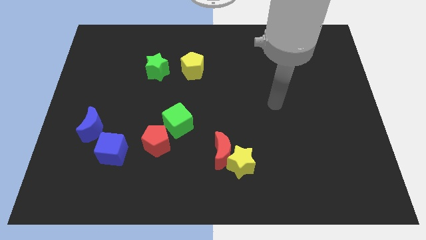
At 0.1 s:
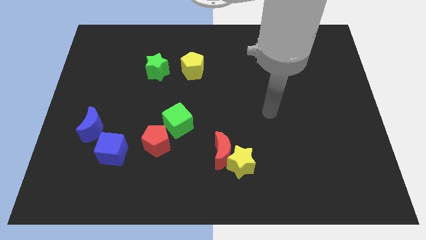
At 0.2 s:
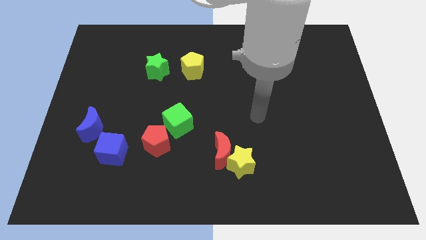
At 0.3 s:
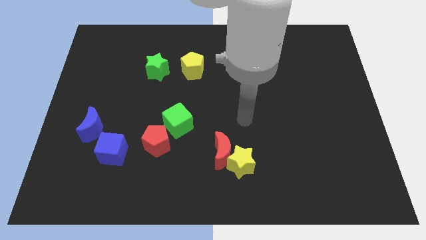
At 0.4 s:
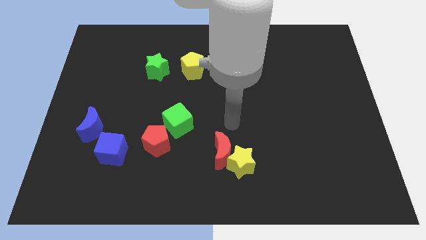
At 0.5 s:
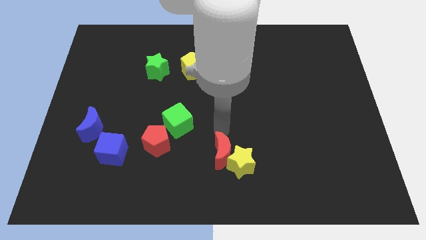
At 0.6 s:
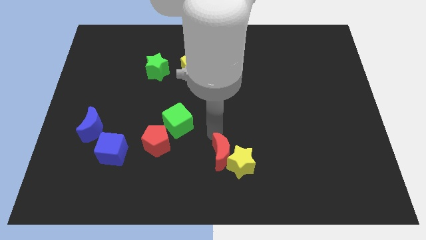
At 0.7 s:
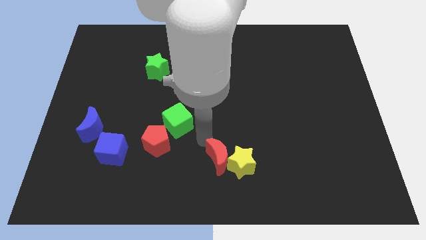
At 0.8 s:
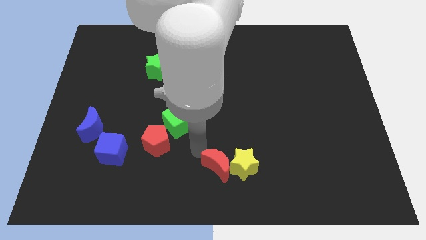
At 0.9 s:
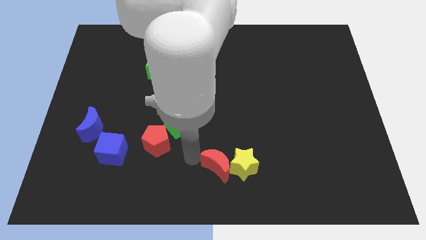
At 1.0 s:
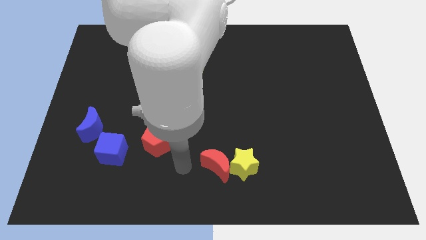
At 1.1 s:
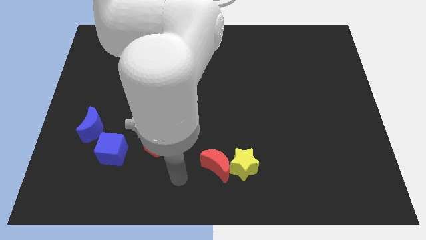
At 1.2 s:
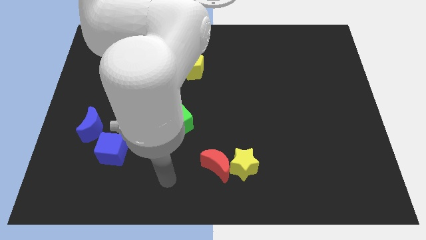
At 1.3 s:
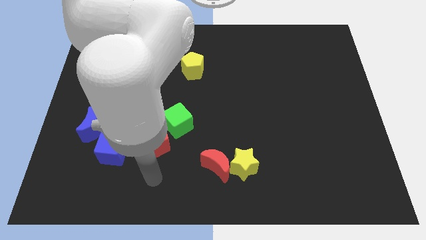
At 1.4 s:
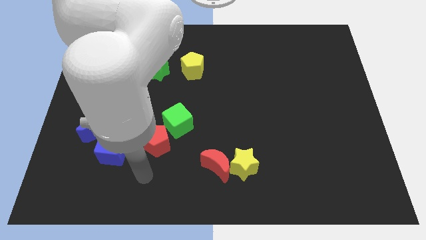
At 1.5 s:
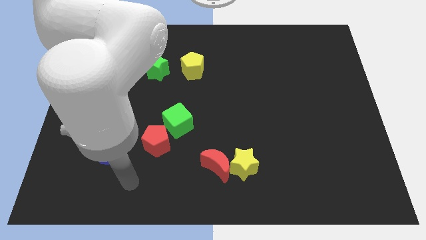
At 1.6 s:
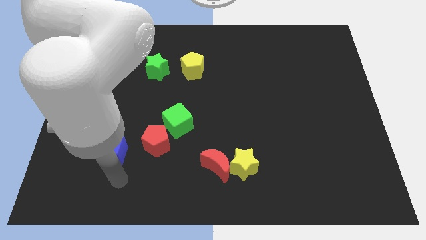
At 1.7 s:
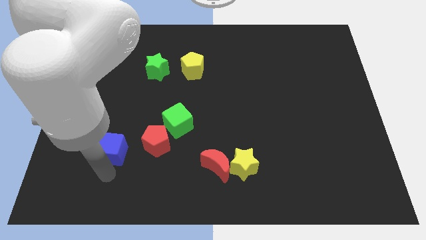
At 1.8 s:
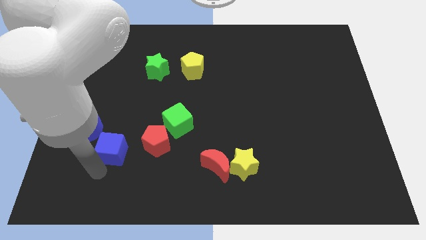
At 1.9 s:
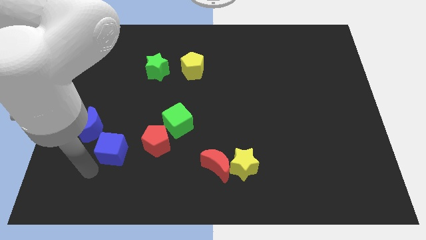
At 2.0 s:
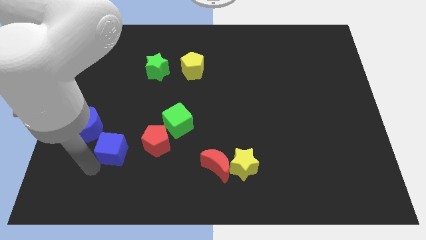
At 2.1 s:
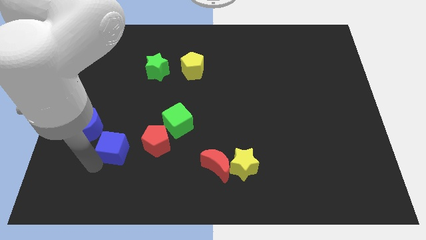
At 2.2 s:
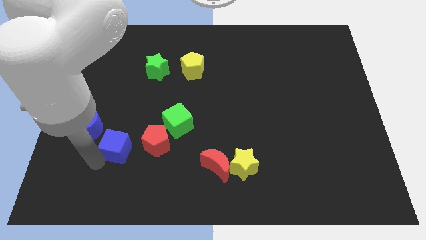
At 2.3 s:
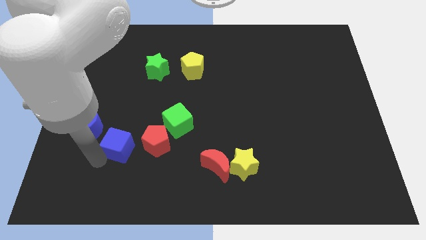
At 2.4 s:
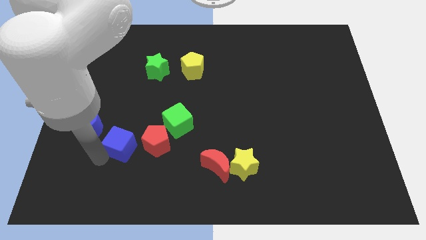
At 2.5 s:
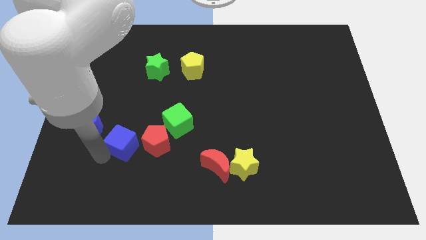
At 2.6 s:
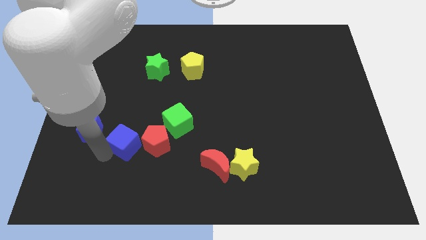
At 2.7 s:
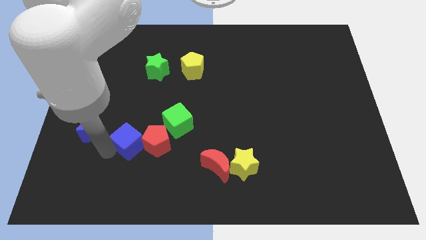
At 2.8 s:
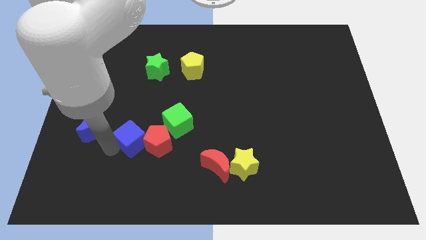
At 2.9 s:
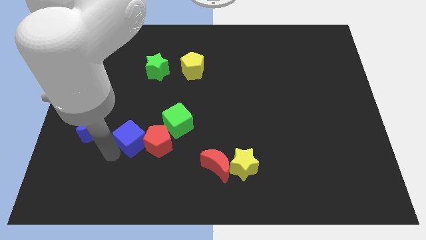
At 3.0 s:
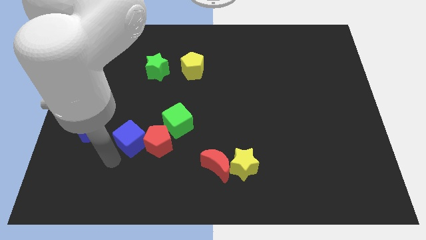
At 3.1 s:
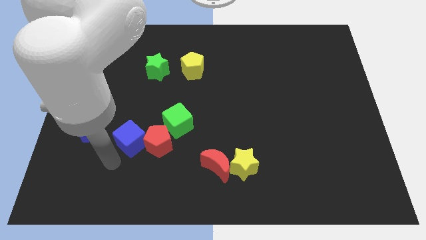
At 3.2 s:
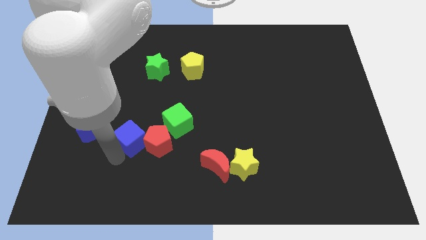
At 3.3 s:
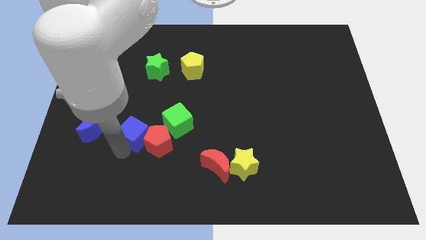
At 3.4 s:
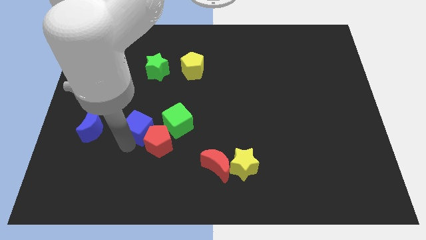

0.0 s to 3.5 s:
slide the blue cube somewhat upwards and to the right diagonally

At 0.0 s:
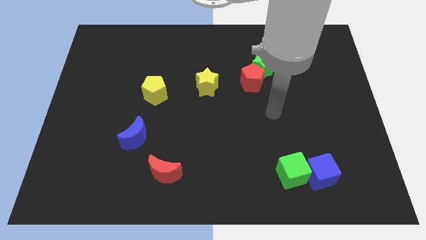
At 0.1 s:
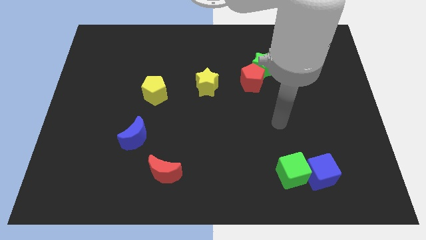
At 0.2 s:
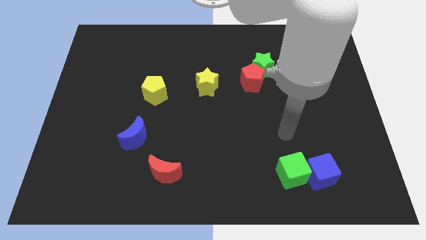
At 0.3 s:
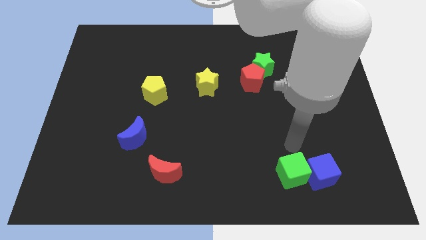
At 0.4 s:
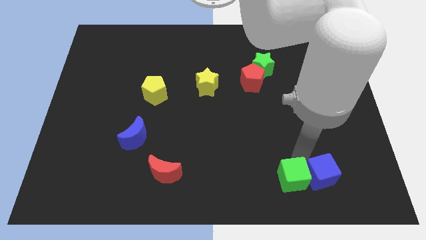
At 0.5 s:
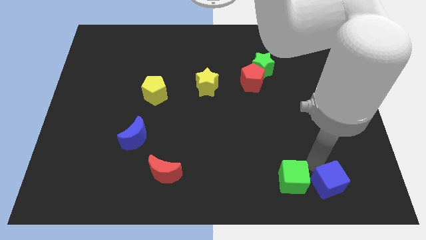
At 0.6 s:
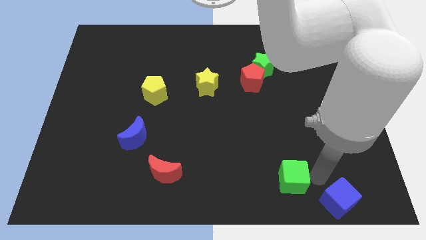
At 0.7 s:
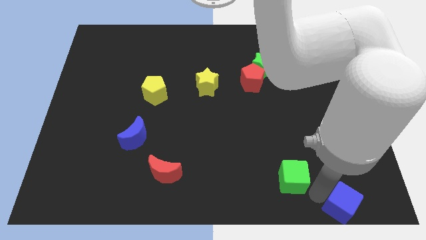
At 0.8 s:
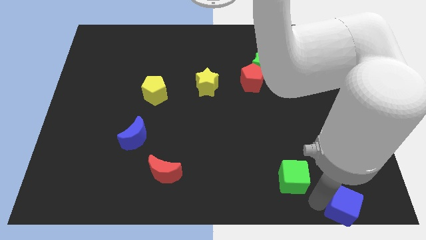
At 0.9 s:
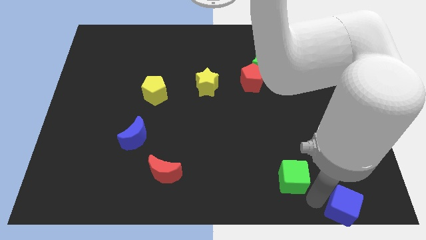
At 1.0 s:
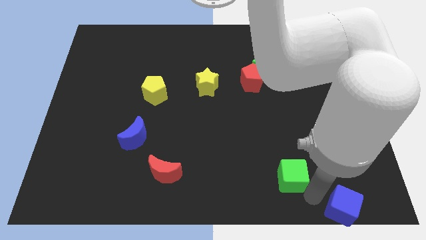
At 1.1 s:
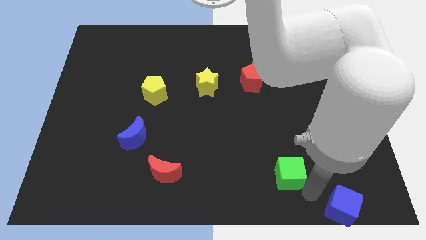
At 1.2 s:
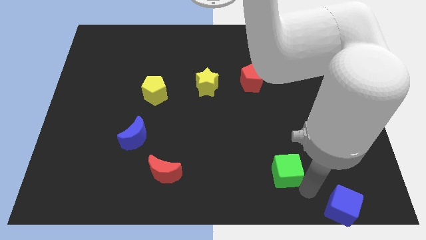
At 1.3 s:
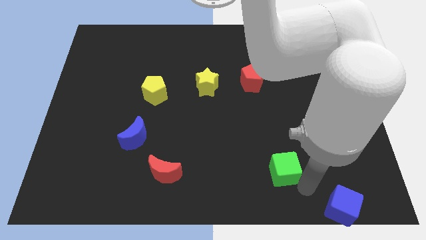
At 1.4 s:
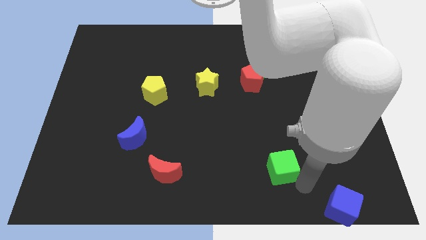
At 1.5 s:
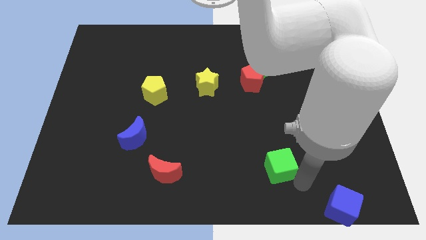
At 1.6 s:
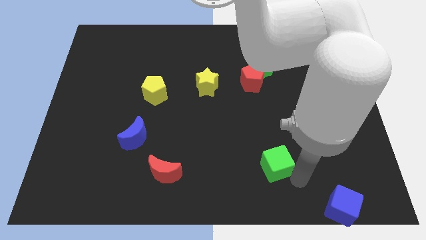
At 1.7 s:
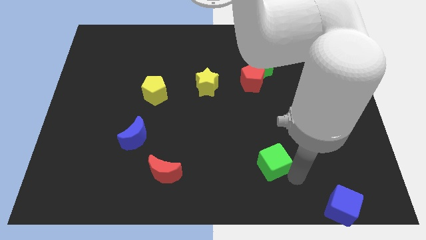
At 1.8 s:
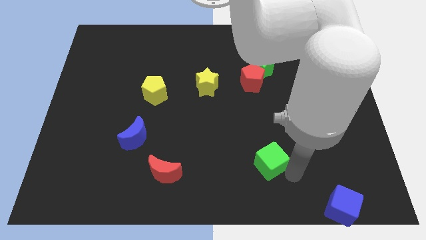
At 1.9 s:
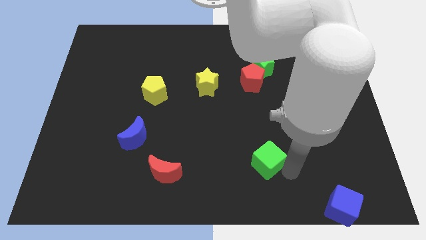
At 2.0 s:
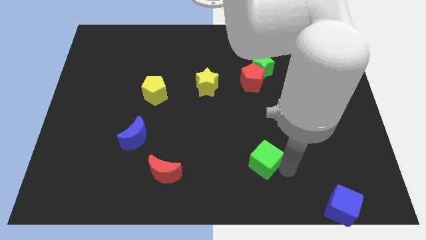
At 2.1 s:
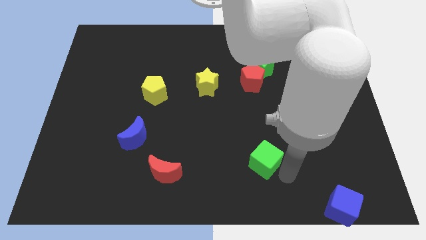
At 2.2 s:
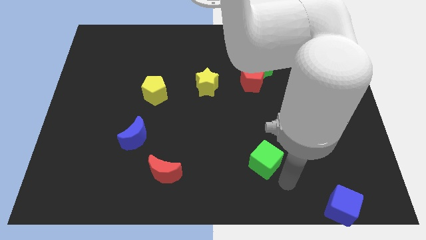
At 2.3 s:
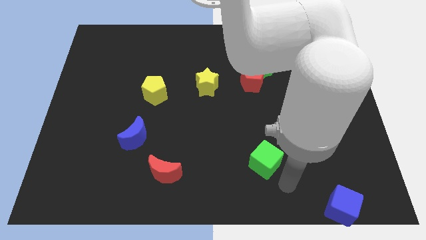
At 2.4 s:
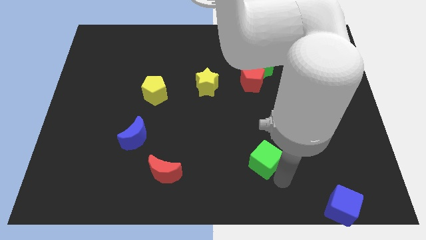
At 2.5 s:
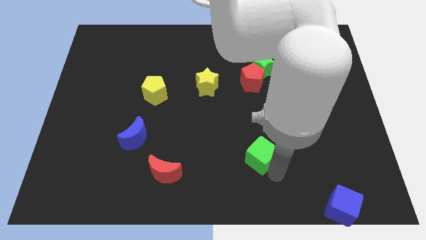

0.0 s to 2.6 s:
push the green cube upwards and left a bit

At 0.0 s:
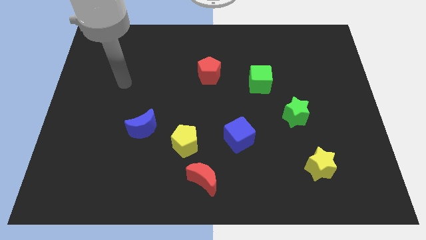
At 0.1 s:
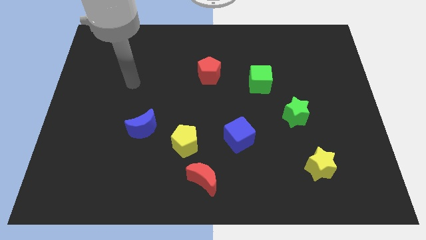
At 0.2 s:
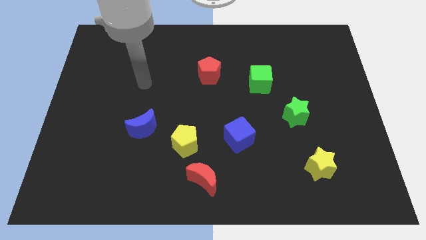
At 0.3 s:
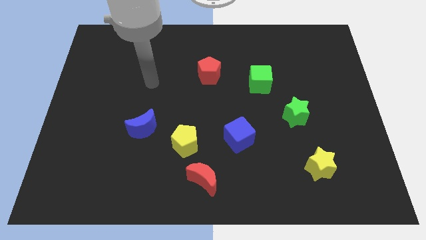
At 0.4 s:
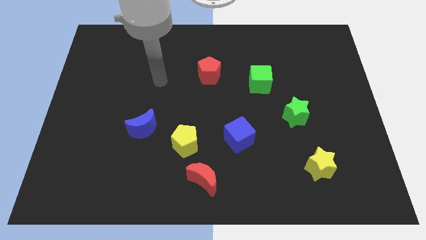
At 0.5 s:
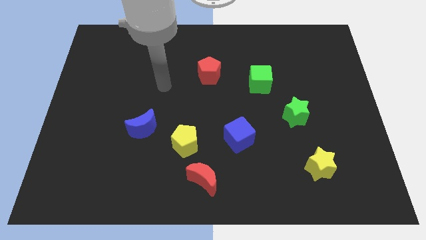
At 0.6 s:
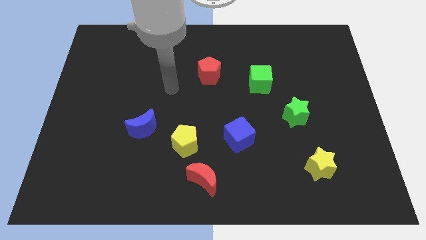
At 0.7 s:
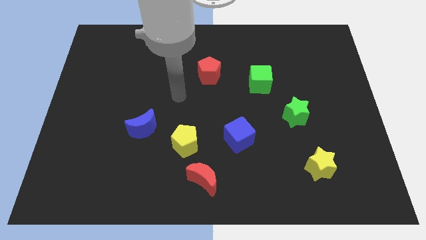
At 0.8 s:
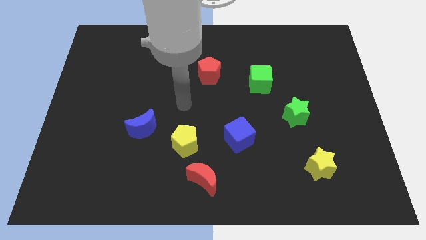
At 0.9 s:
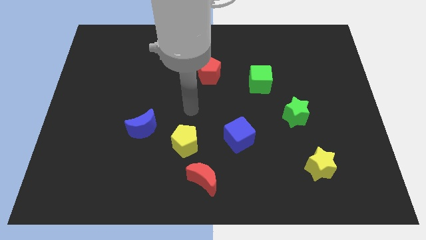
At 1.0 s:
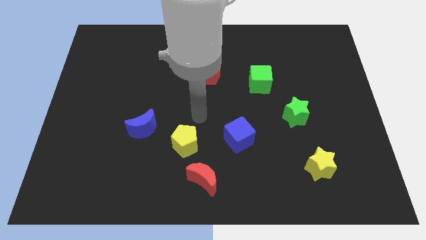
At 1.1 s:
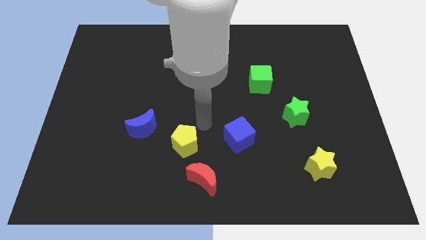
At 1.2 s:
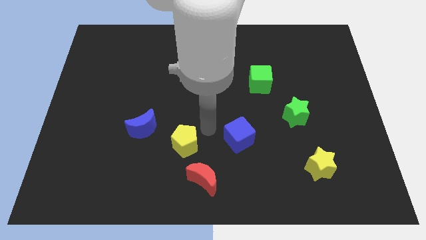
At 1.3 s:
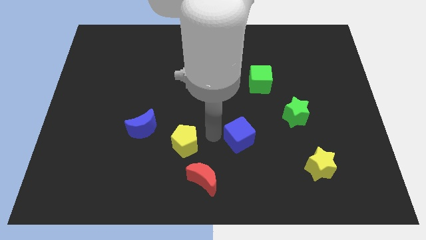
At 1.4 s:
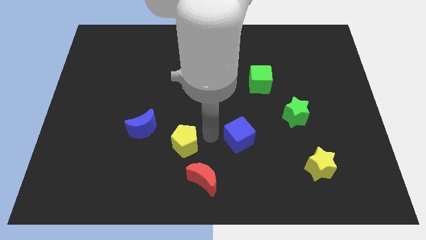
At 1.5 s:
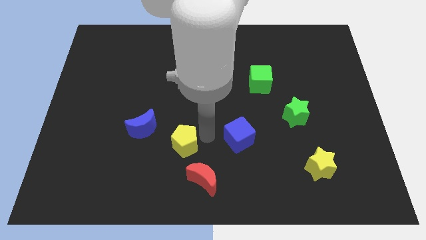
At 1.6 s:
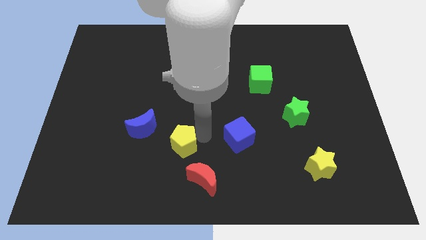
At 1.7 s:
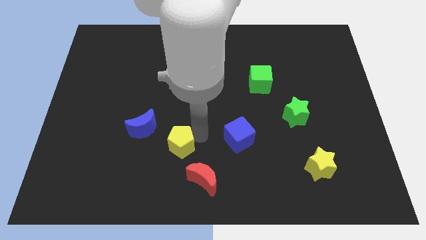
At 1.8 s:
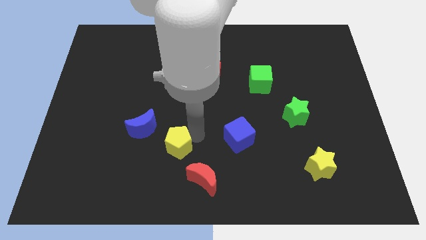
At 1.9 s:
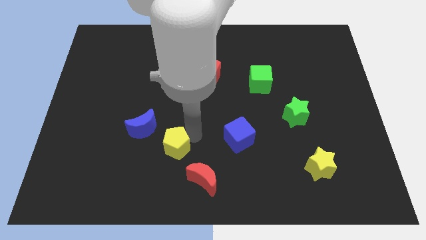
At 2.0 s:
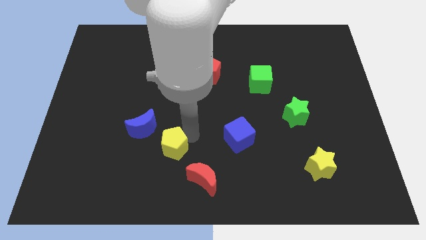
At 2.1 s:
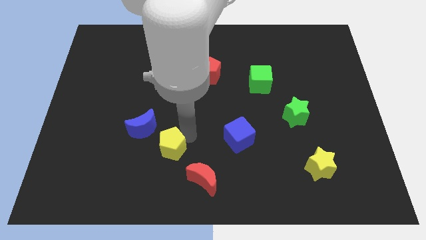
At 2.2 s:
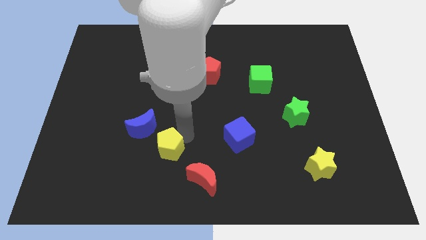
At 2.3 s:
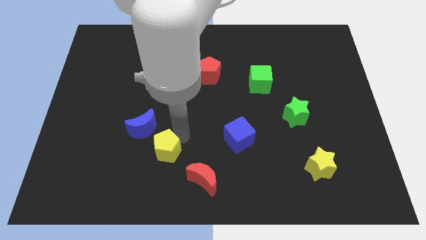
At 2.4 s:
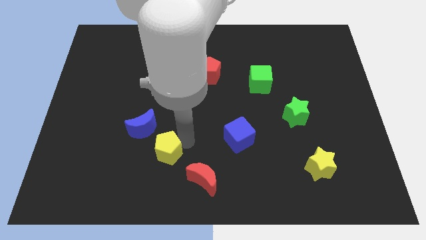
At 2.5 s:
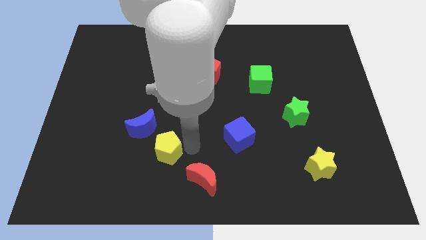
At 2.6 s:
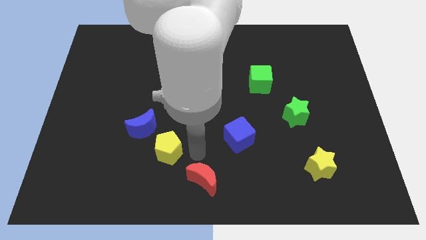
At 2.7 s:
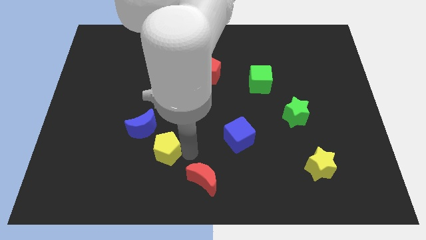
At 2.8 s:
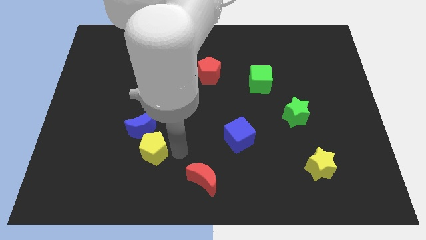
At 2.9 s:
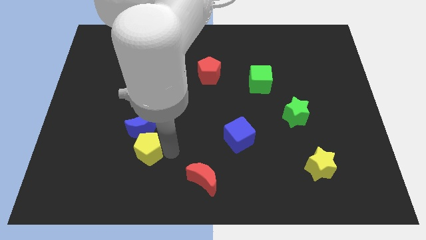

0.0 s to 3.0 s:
push the yellow pentagon left a bit
